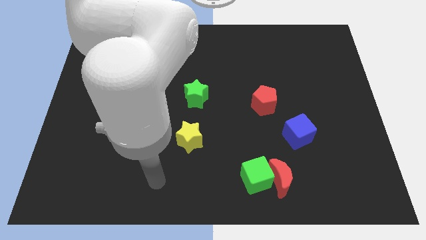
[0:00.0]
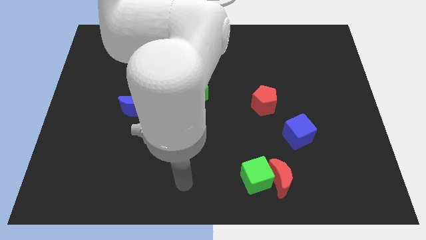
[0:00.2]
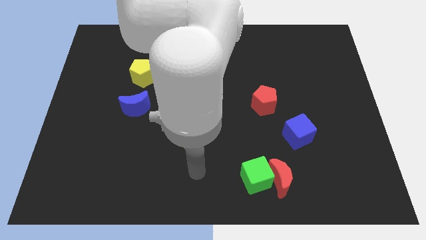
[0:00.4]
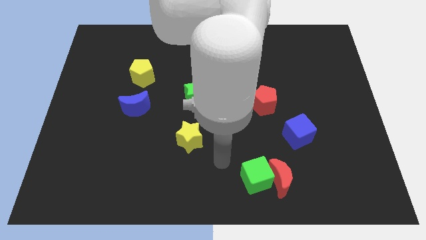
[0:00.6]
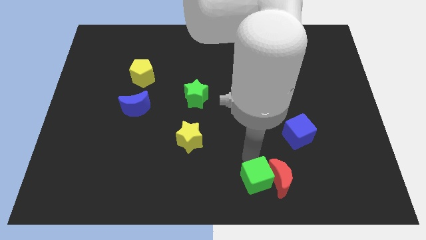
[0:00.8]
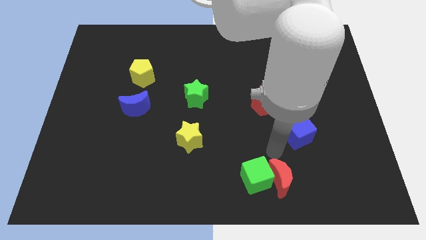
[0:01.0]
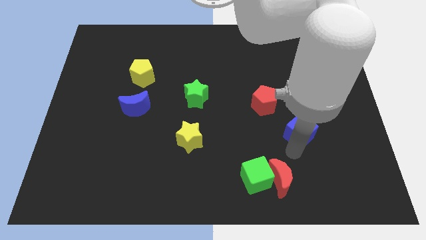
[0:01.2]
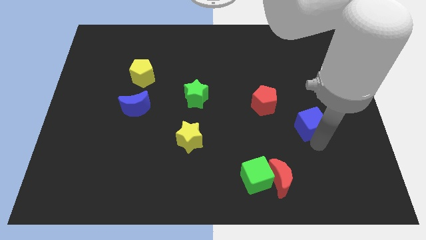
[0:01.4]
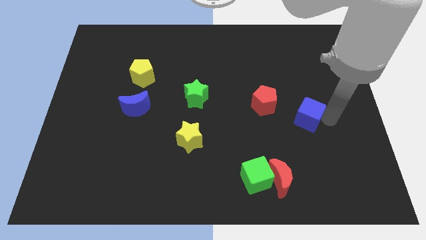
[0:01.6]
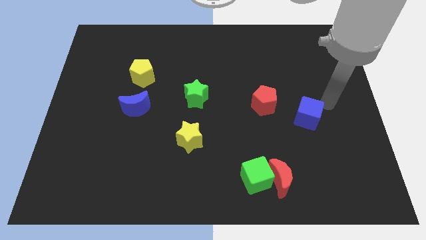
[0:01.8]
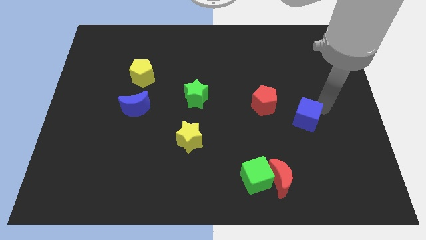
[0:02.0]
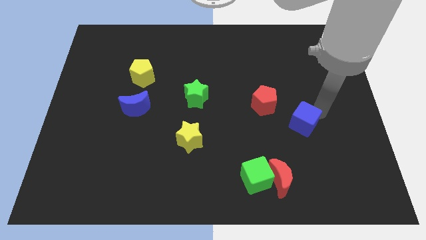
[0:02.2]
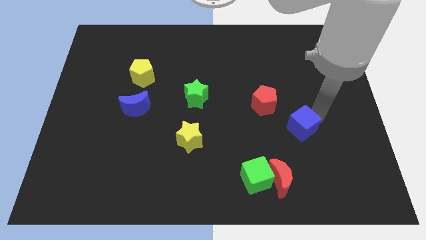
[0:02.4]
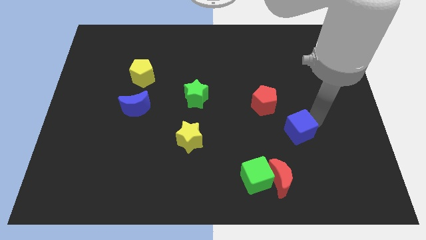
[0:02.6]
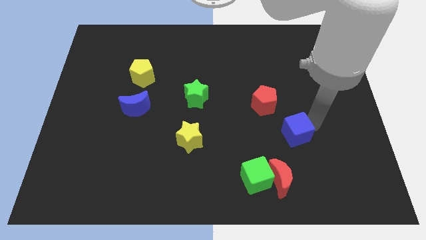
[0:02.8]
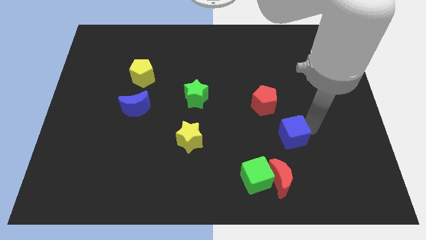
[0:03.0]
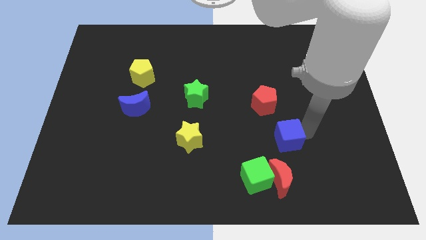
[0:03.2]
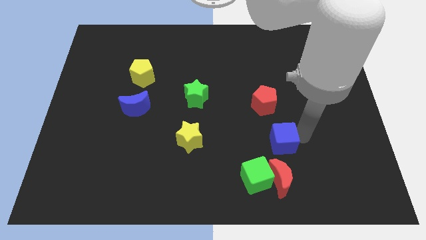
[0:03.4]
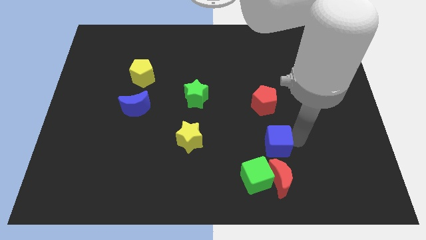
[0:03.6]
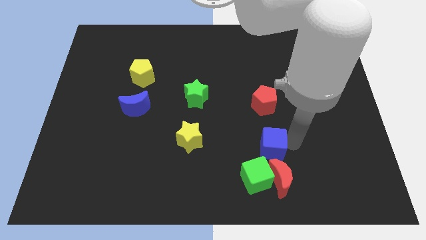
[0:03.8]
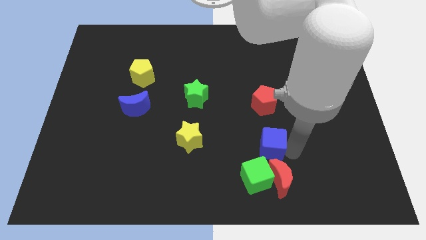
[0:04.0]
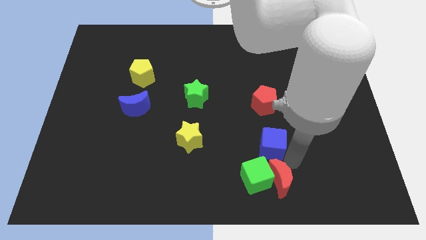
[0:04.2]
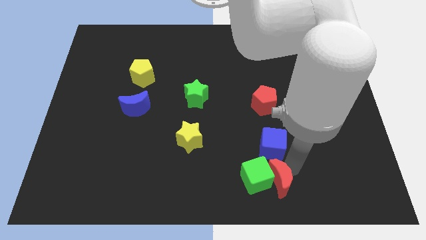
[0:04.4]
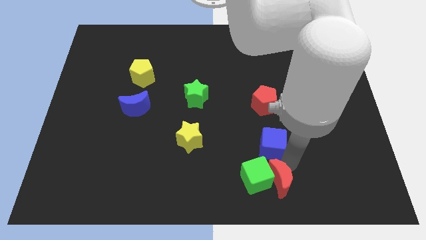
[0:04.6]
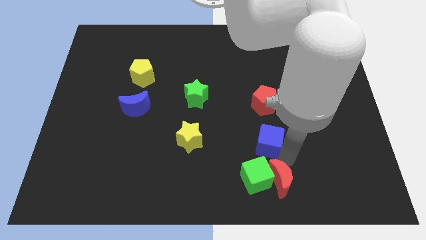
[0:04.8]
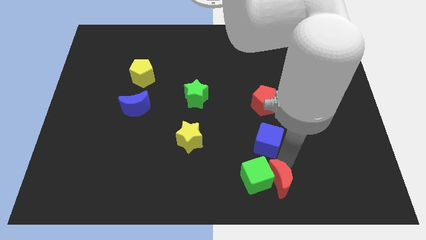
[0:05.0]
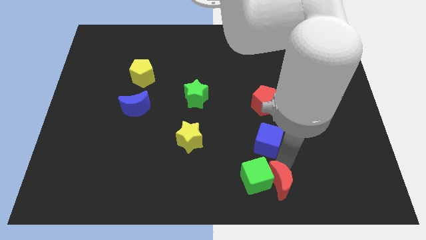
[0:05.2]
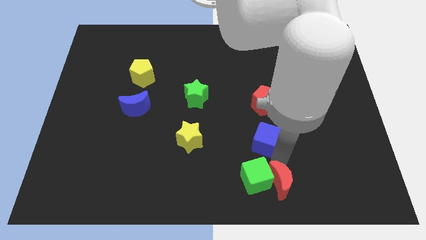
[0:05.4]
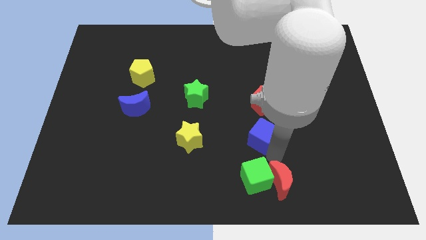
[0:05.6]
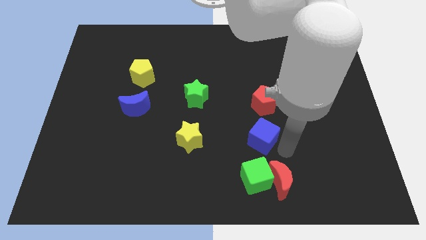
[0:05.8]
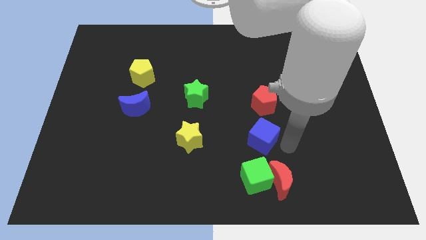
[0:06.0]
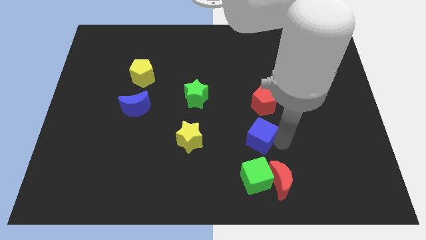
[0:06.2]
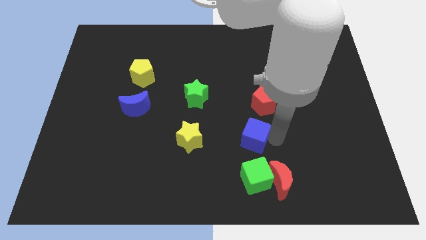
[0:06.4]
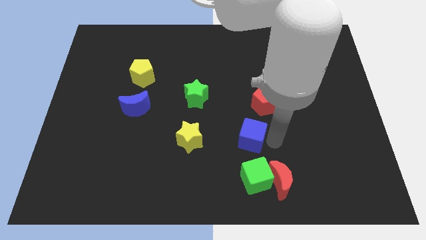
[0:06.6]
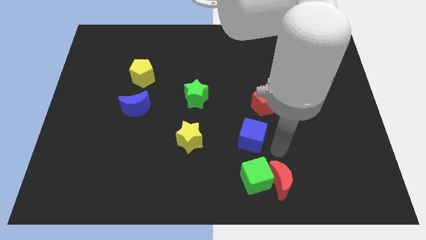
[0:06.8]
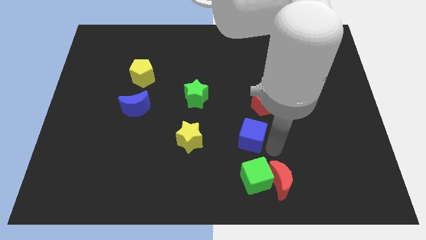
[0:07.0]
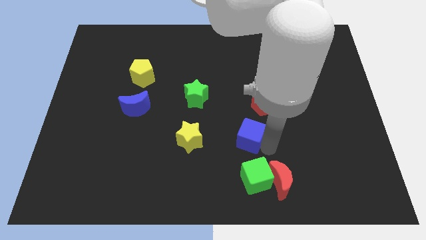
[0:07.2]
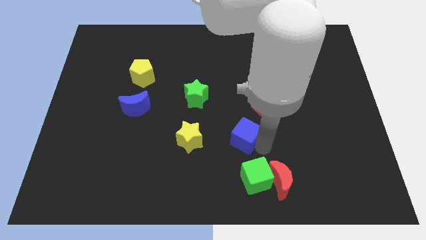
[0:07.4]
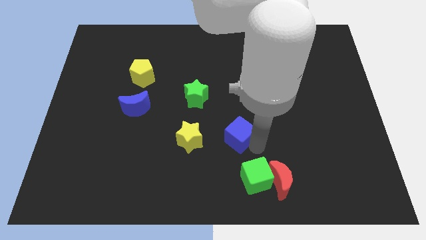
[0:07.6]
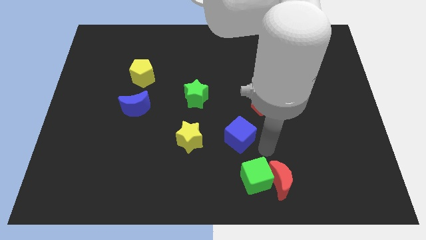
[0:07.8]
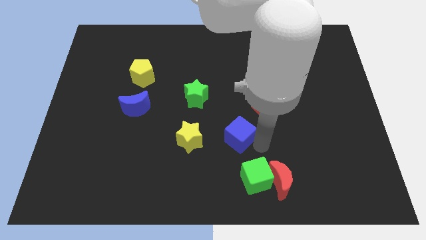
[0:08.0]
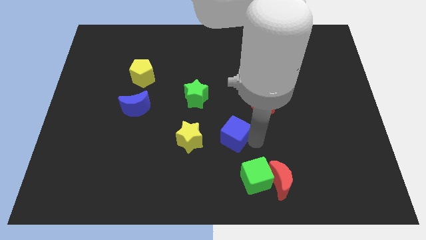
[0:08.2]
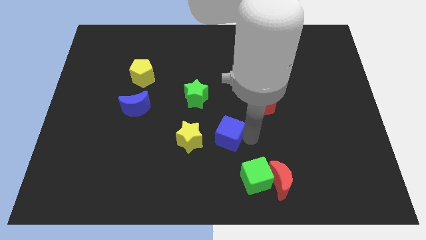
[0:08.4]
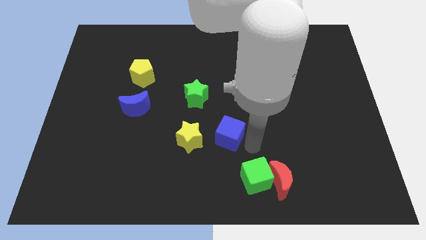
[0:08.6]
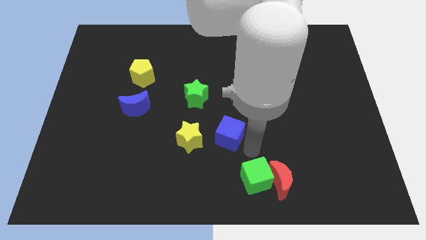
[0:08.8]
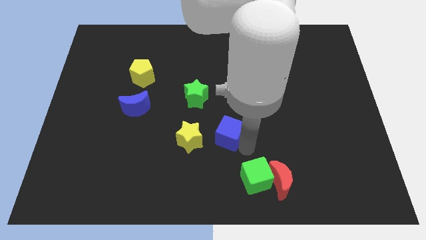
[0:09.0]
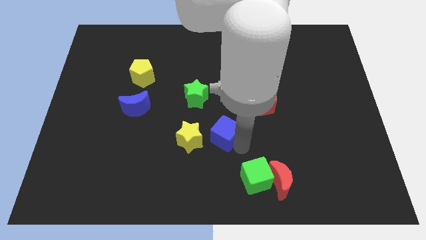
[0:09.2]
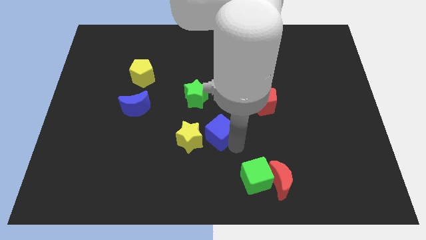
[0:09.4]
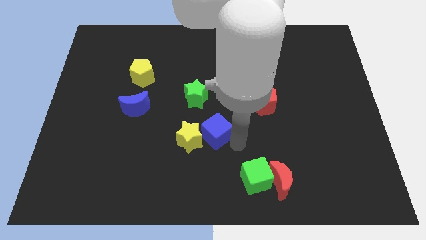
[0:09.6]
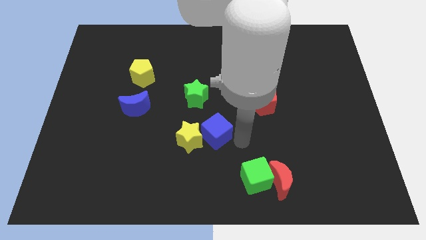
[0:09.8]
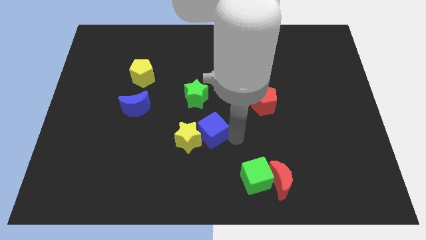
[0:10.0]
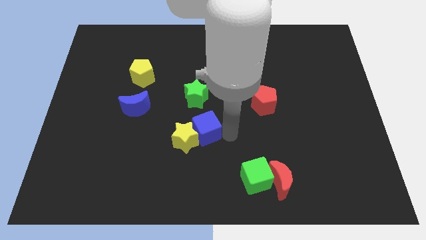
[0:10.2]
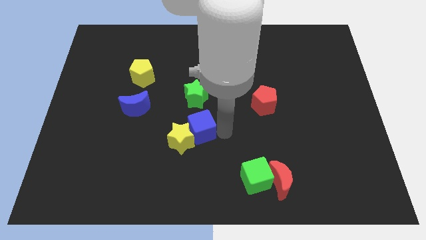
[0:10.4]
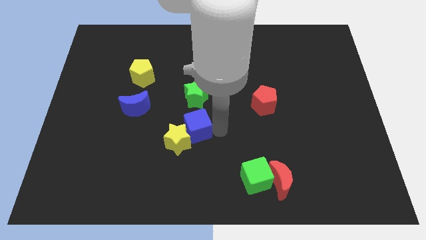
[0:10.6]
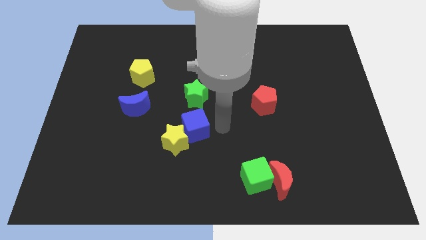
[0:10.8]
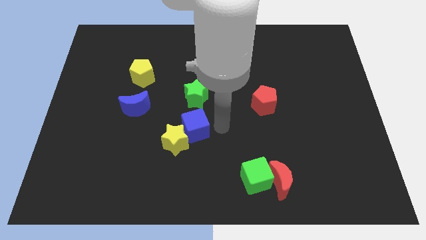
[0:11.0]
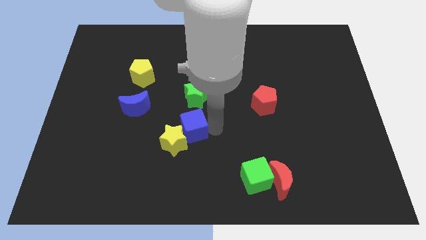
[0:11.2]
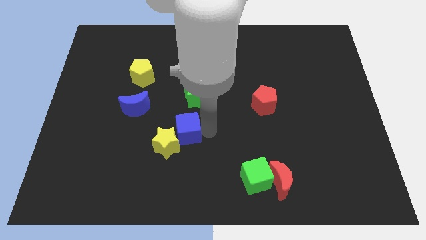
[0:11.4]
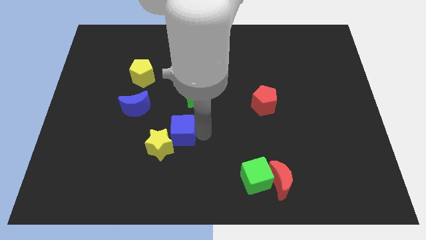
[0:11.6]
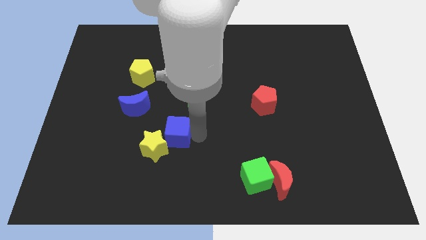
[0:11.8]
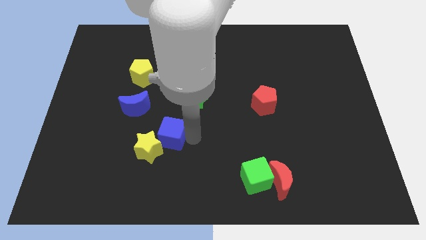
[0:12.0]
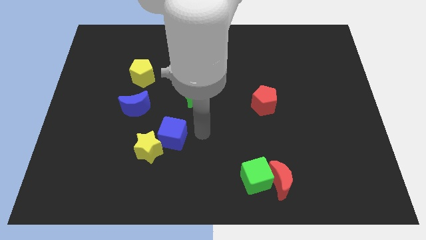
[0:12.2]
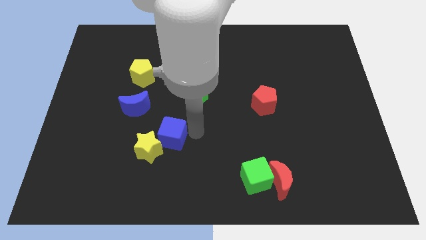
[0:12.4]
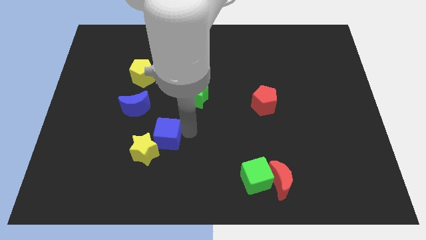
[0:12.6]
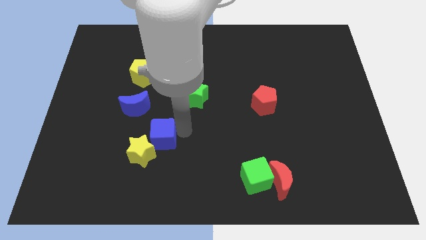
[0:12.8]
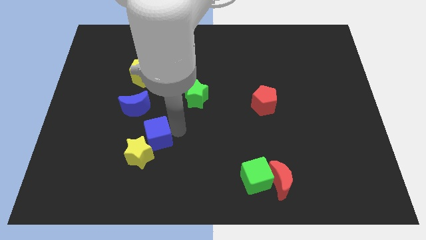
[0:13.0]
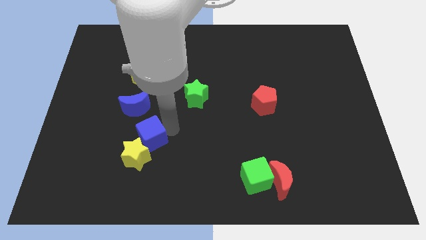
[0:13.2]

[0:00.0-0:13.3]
put the blue cube below the blue moon

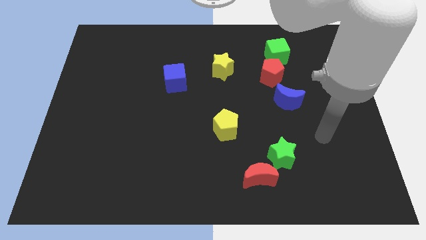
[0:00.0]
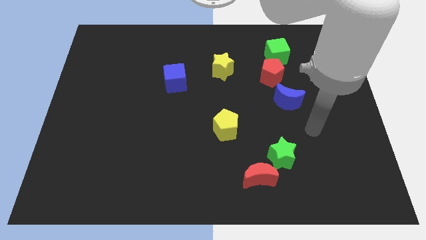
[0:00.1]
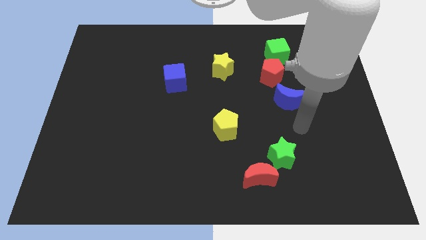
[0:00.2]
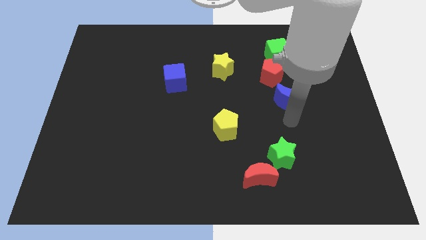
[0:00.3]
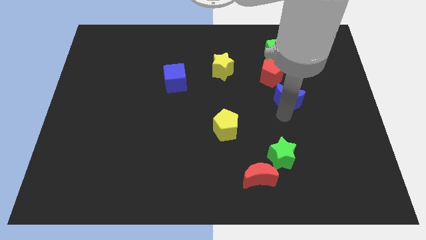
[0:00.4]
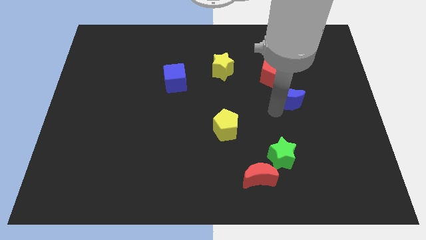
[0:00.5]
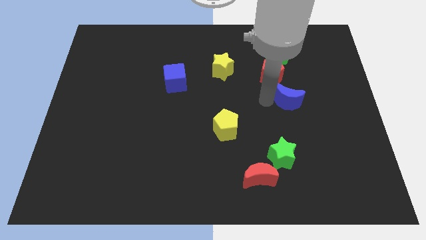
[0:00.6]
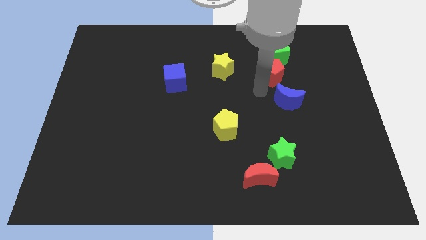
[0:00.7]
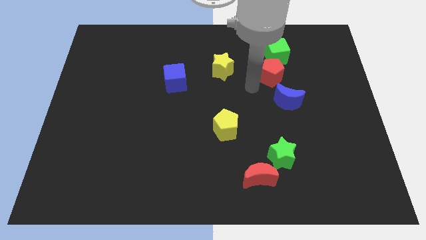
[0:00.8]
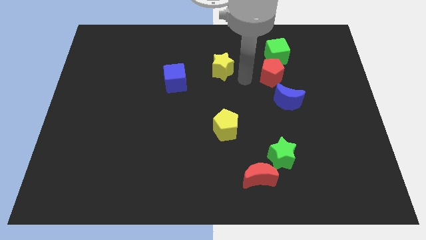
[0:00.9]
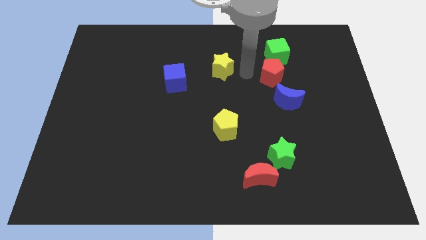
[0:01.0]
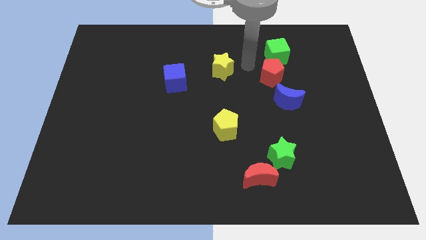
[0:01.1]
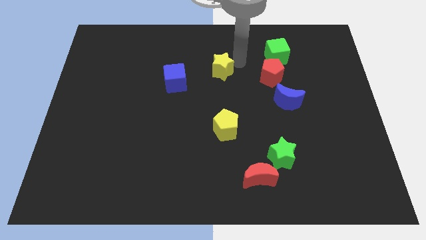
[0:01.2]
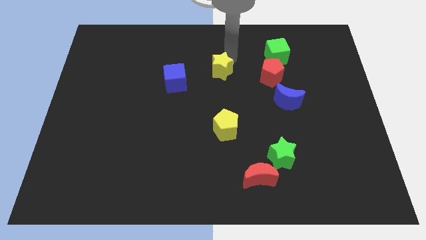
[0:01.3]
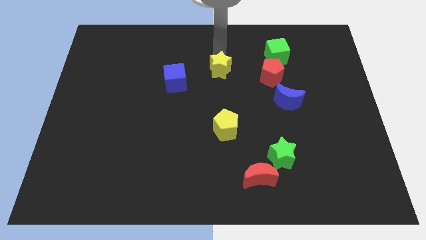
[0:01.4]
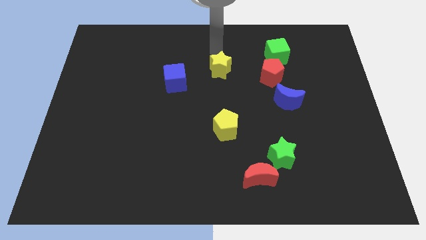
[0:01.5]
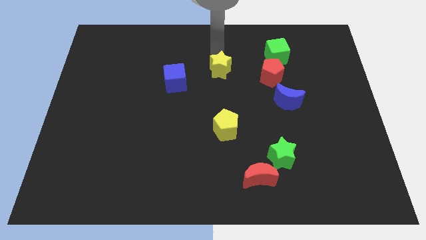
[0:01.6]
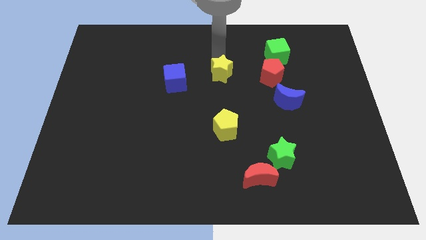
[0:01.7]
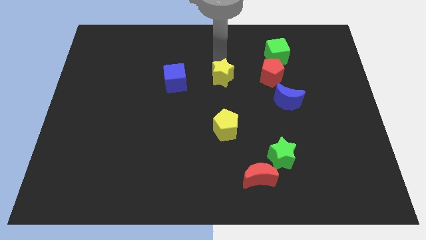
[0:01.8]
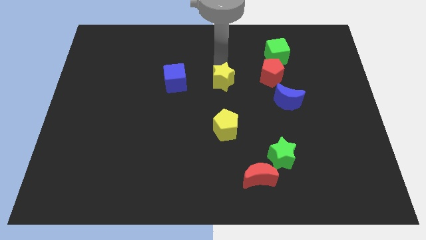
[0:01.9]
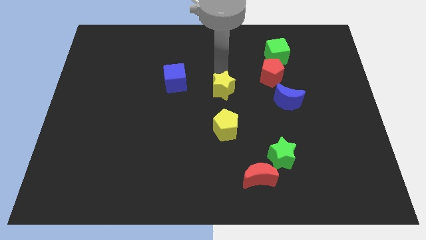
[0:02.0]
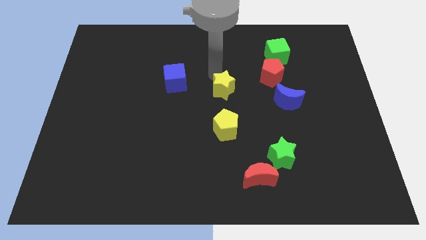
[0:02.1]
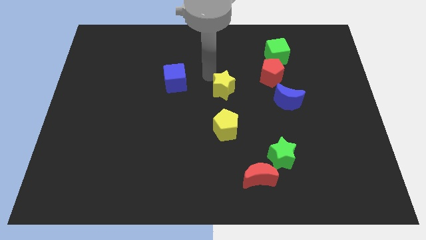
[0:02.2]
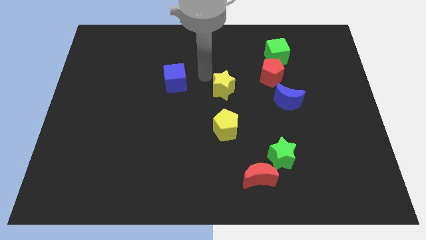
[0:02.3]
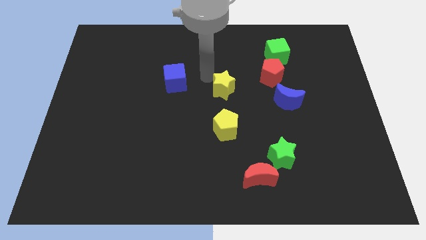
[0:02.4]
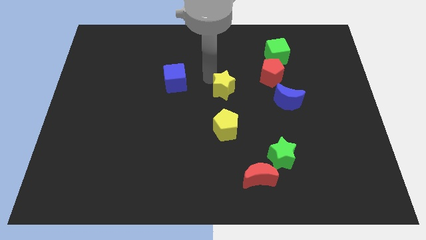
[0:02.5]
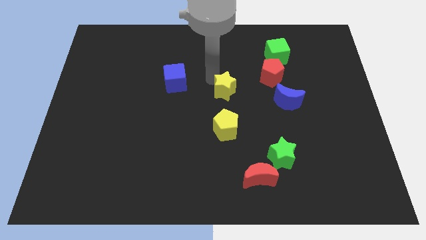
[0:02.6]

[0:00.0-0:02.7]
push the yellow star just left of the blue moon
